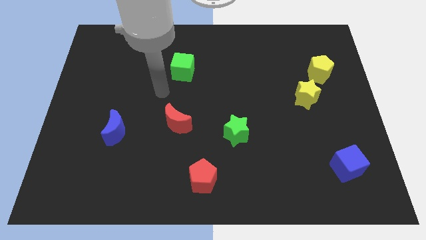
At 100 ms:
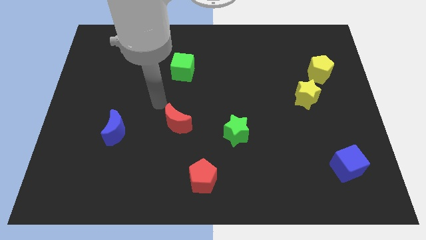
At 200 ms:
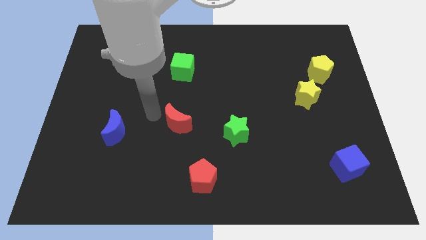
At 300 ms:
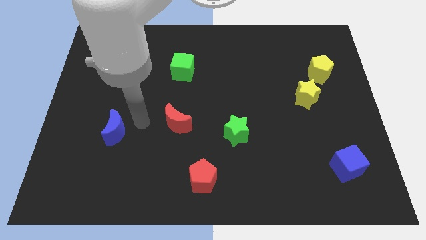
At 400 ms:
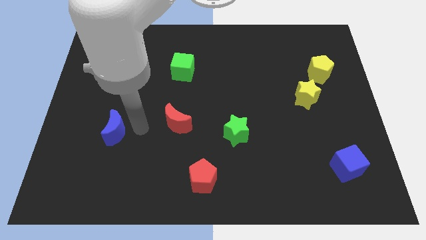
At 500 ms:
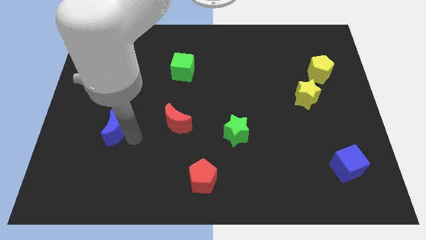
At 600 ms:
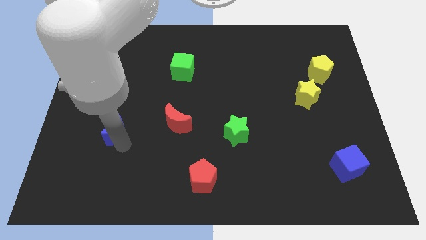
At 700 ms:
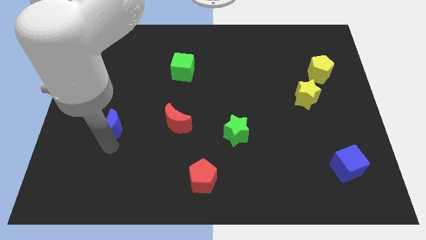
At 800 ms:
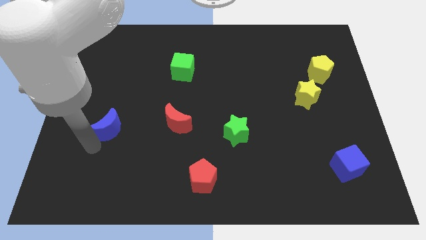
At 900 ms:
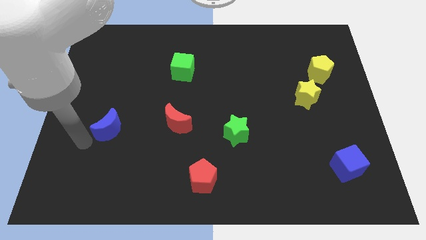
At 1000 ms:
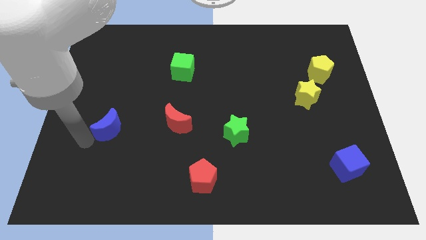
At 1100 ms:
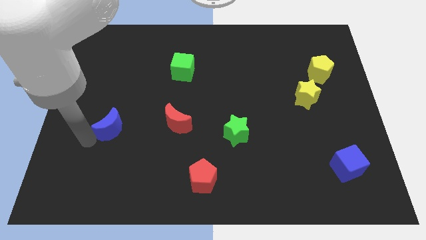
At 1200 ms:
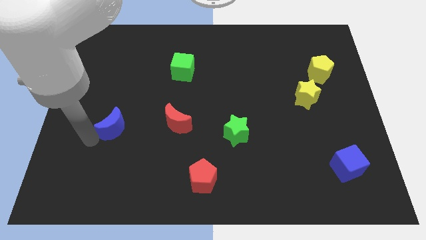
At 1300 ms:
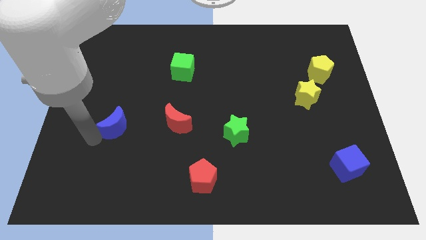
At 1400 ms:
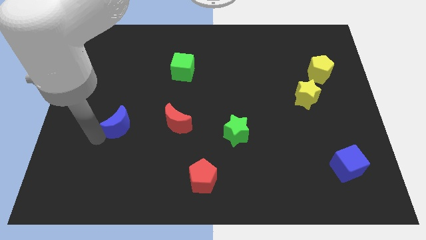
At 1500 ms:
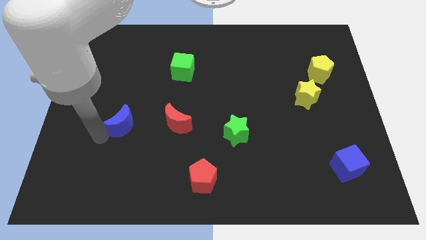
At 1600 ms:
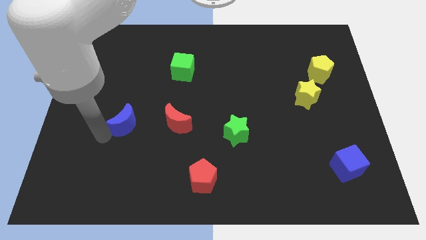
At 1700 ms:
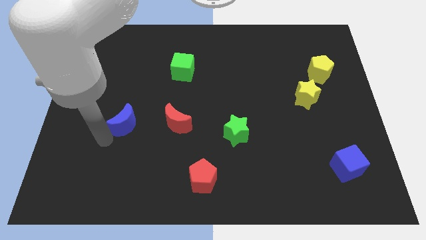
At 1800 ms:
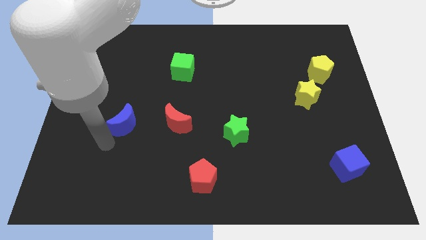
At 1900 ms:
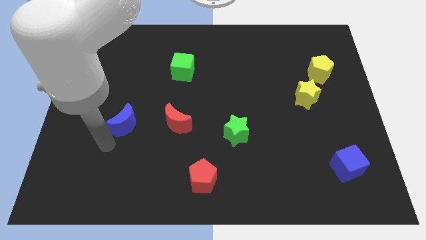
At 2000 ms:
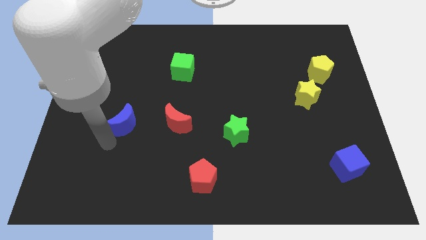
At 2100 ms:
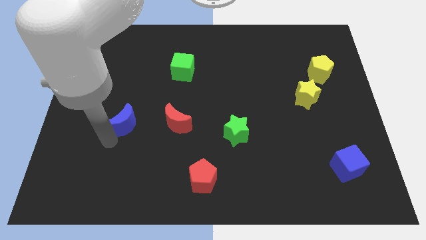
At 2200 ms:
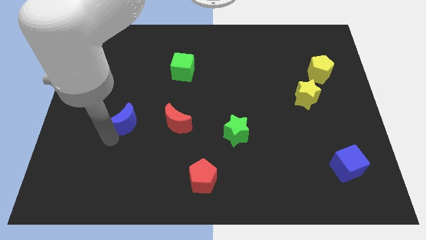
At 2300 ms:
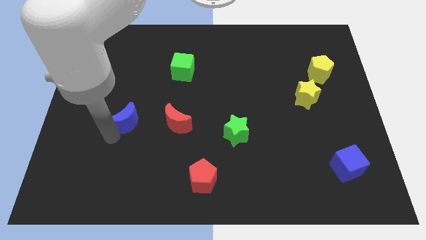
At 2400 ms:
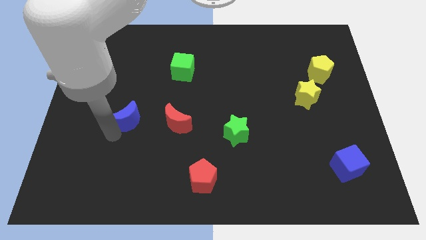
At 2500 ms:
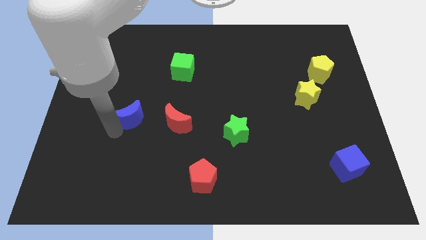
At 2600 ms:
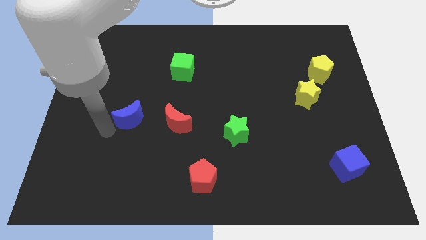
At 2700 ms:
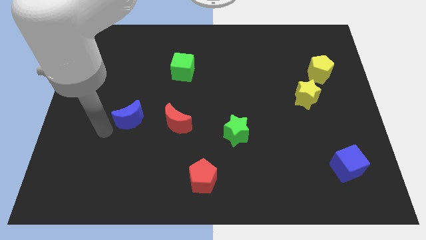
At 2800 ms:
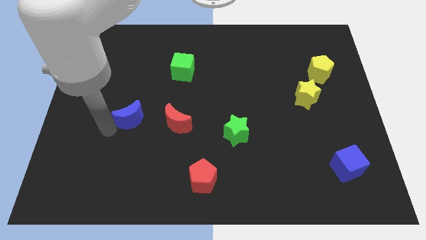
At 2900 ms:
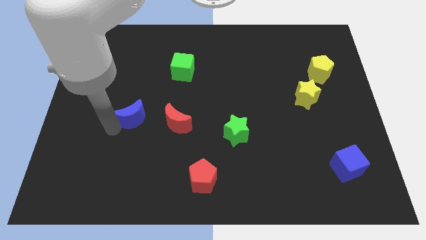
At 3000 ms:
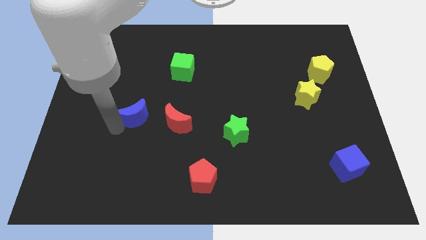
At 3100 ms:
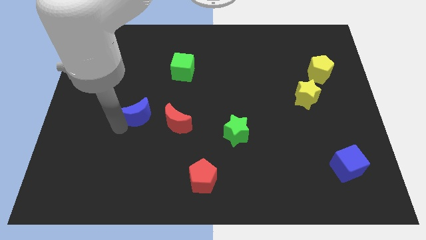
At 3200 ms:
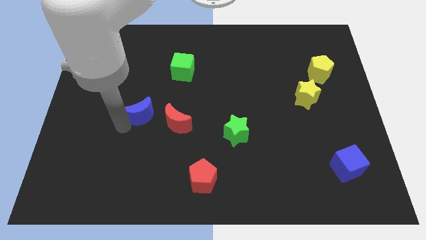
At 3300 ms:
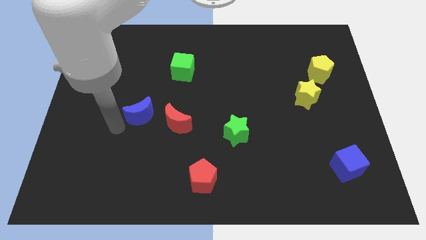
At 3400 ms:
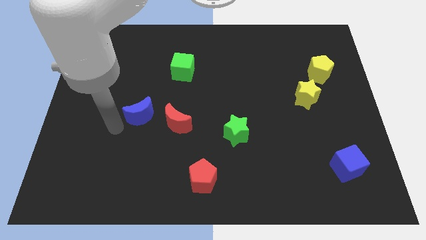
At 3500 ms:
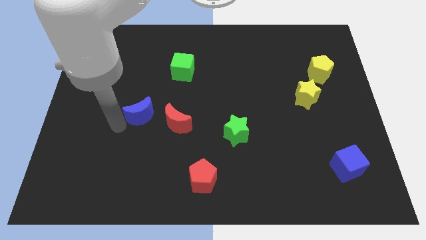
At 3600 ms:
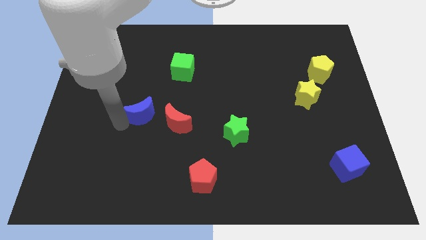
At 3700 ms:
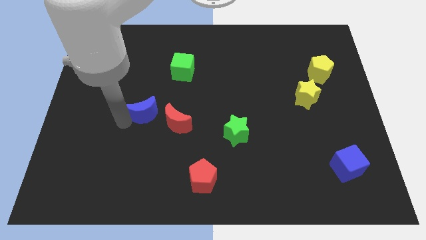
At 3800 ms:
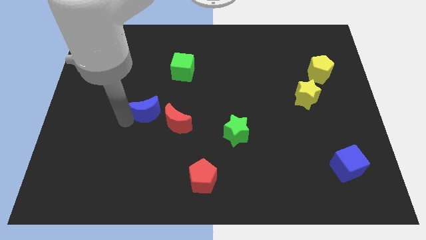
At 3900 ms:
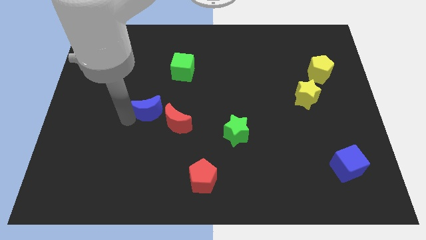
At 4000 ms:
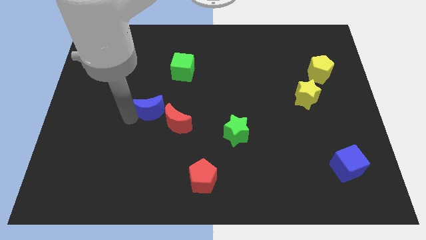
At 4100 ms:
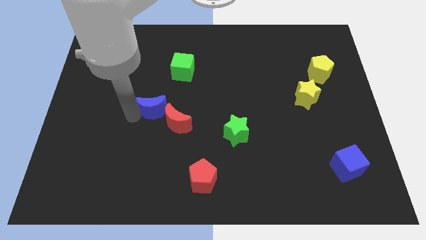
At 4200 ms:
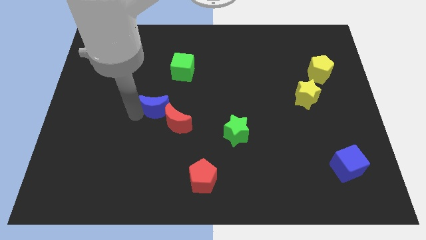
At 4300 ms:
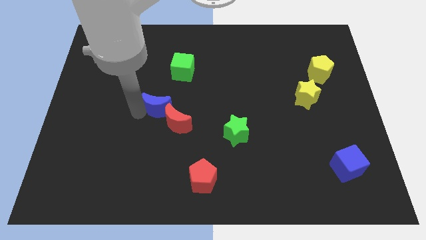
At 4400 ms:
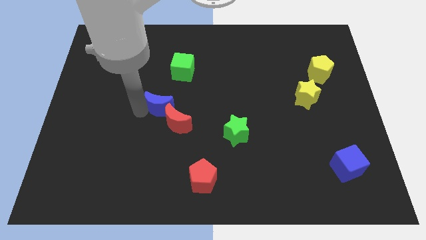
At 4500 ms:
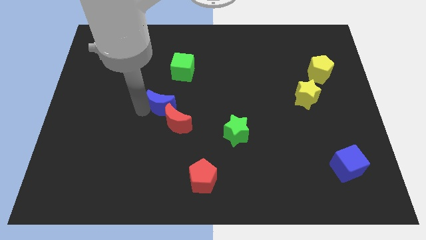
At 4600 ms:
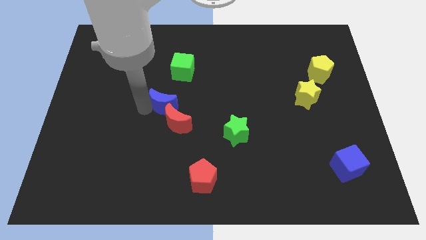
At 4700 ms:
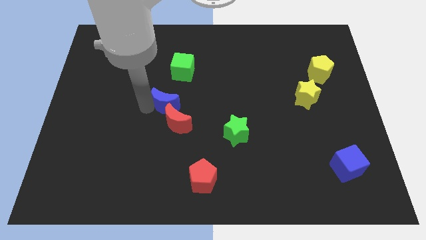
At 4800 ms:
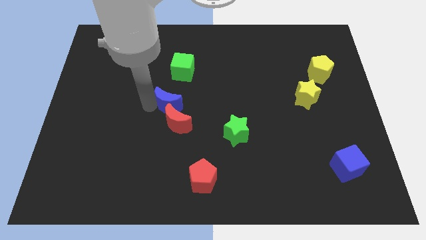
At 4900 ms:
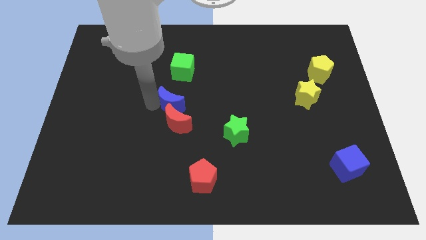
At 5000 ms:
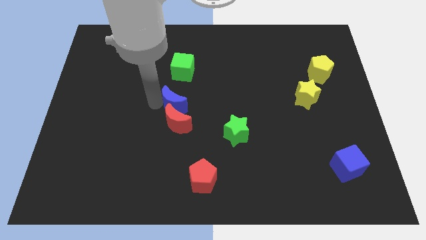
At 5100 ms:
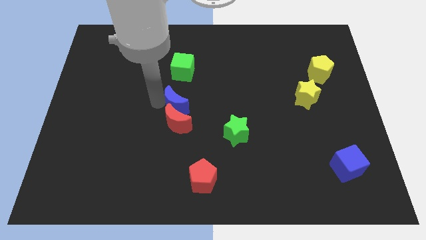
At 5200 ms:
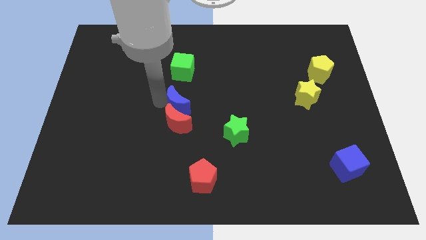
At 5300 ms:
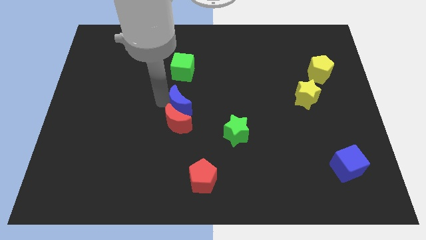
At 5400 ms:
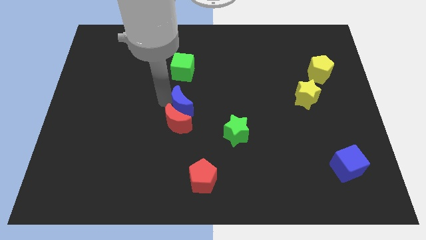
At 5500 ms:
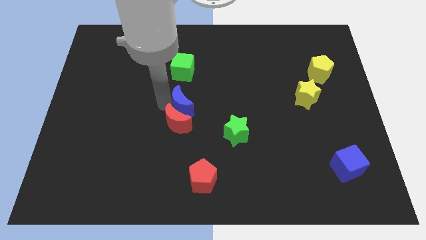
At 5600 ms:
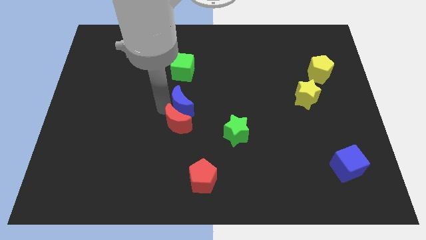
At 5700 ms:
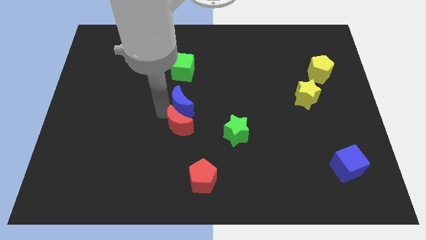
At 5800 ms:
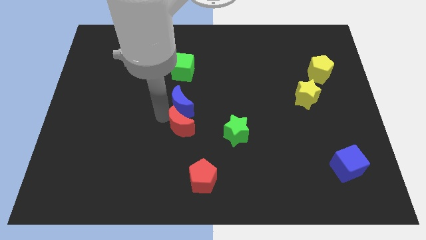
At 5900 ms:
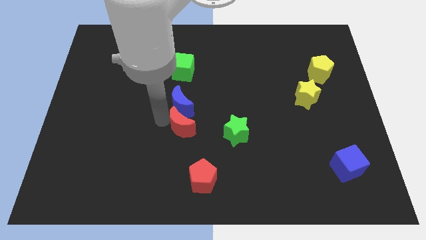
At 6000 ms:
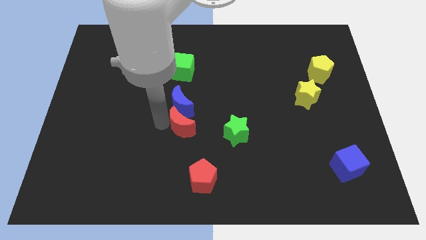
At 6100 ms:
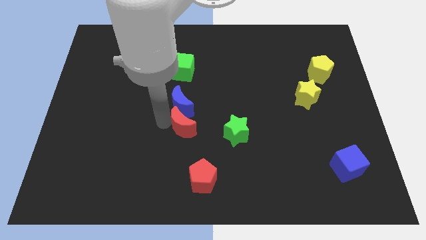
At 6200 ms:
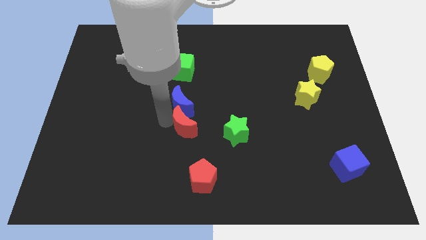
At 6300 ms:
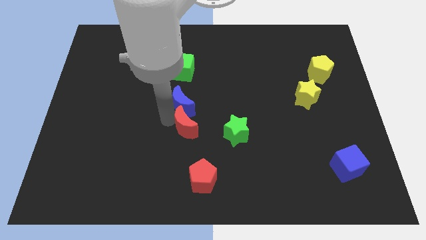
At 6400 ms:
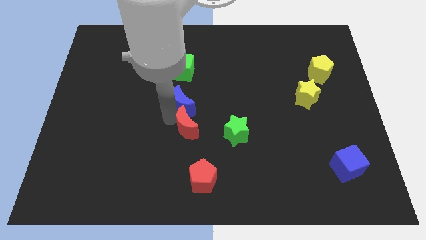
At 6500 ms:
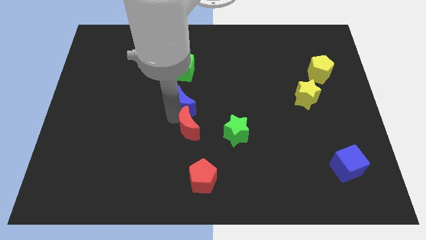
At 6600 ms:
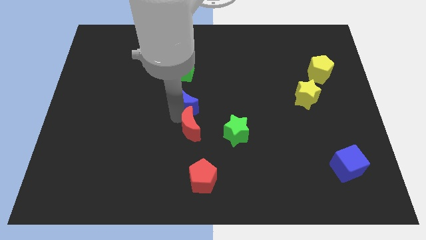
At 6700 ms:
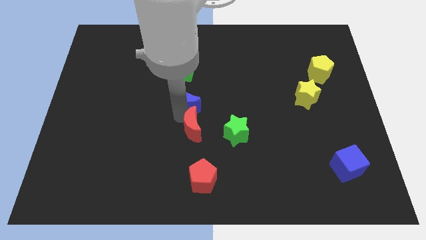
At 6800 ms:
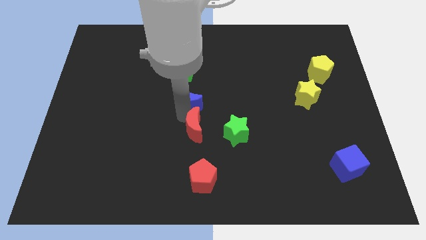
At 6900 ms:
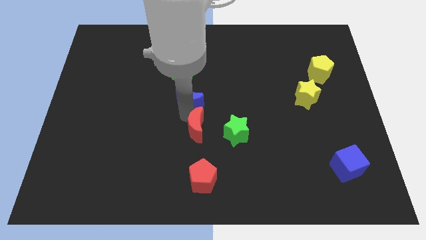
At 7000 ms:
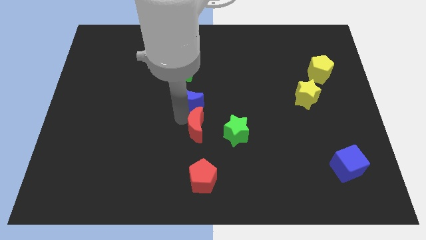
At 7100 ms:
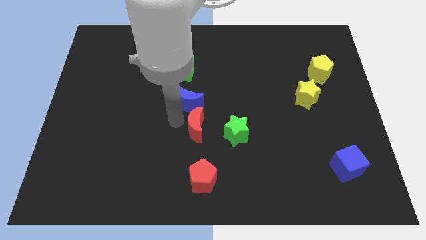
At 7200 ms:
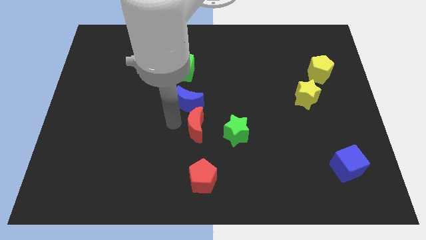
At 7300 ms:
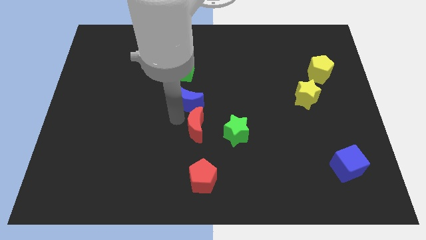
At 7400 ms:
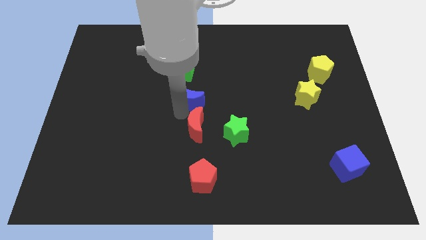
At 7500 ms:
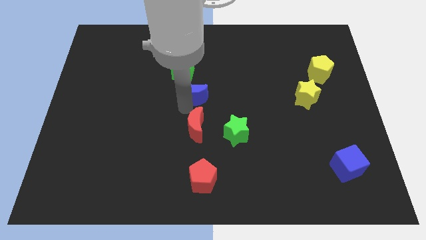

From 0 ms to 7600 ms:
slide the blue moon diagonally down and to the right of the green cube
